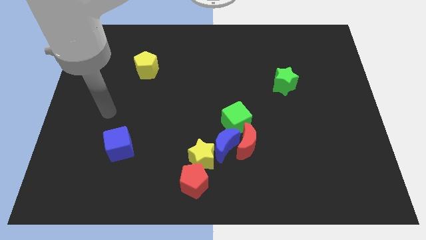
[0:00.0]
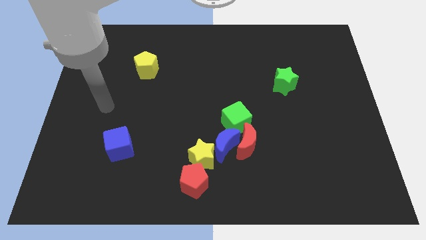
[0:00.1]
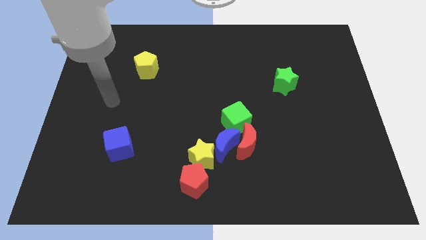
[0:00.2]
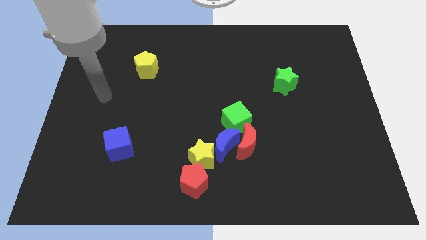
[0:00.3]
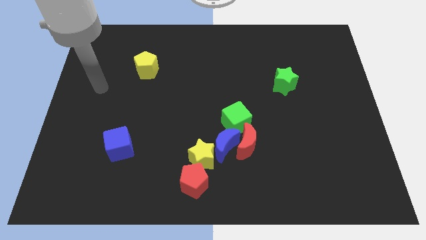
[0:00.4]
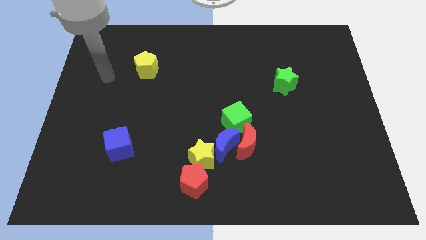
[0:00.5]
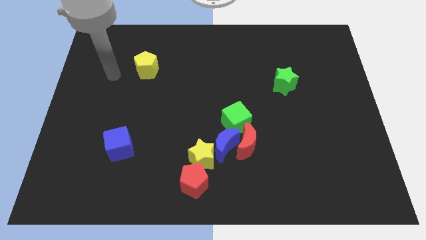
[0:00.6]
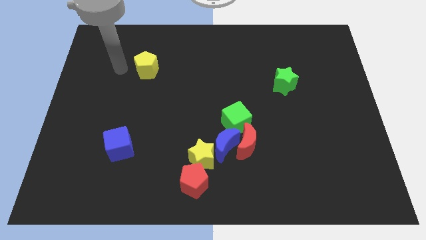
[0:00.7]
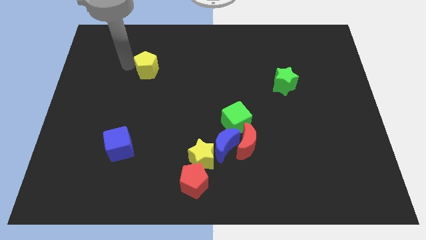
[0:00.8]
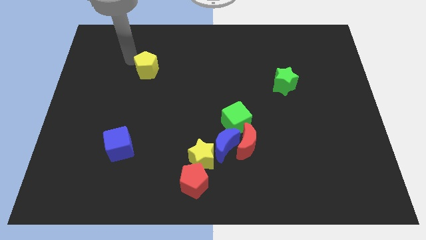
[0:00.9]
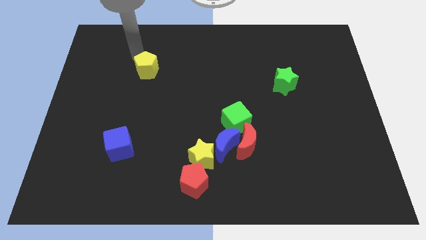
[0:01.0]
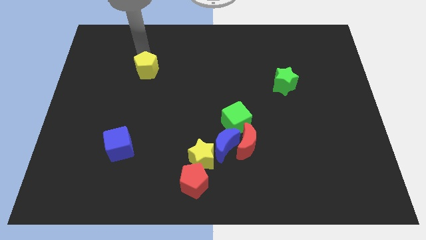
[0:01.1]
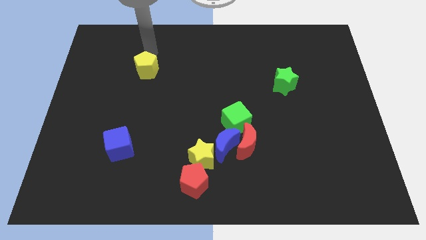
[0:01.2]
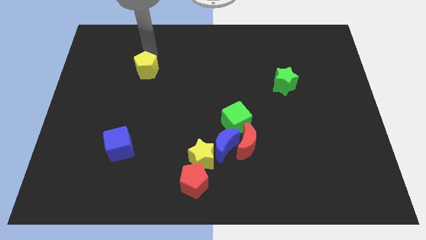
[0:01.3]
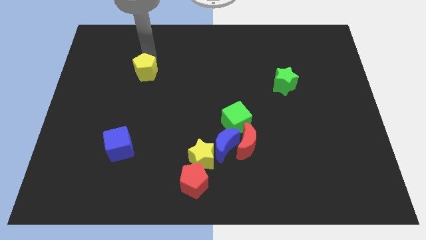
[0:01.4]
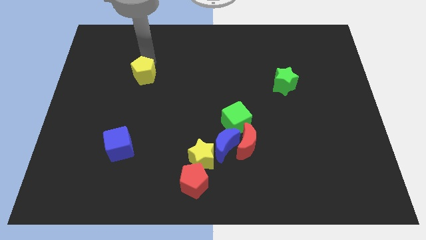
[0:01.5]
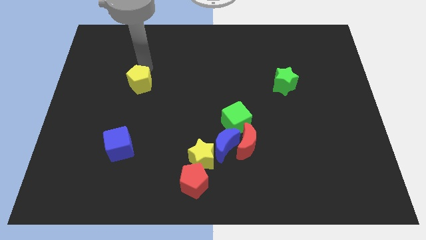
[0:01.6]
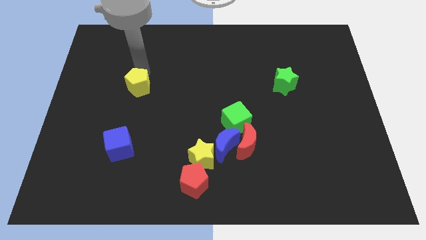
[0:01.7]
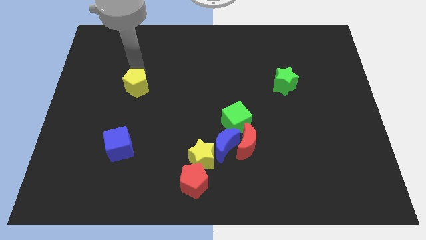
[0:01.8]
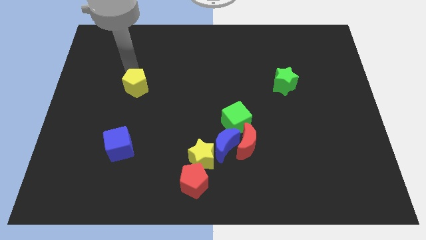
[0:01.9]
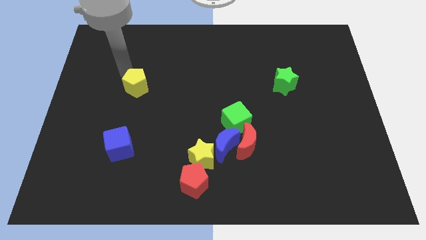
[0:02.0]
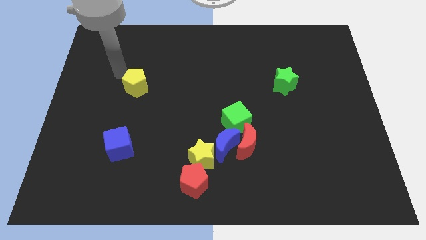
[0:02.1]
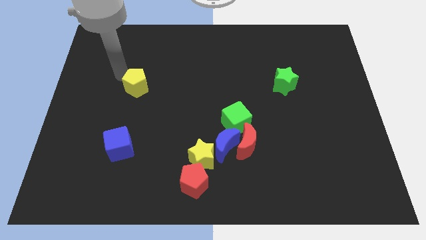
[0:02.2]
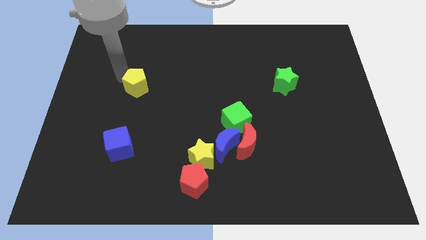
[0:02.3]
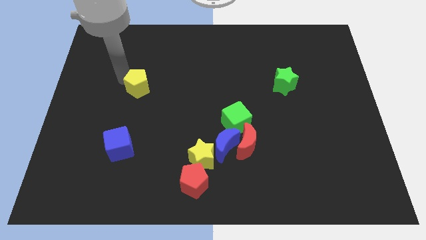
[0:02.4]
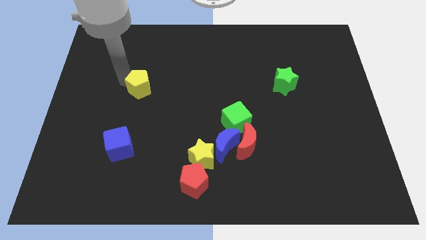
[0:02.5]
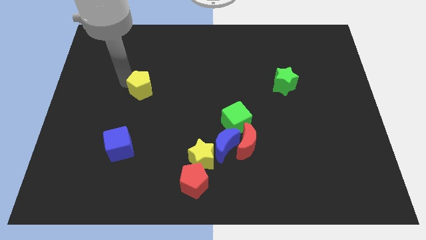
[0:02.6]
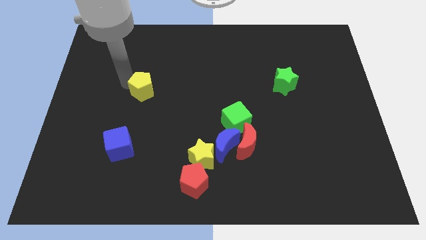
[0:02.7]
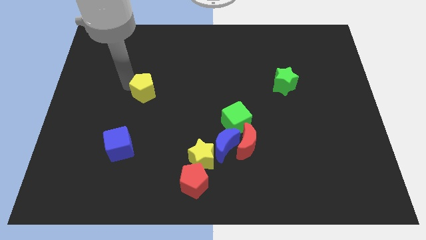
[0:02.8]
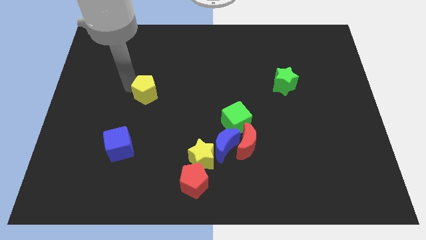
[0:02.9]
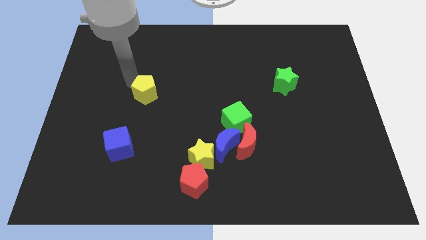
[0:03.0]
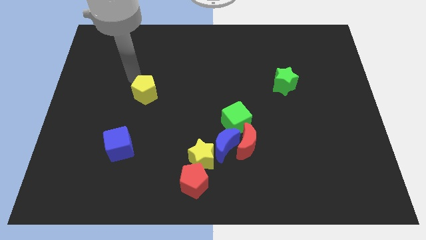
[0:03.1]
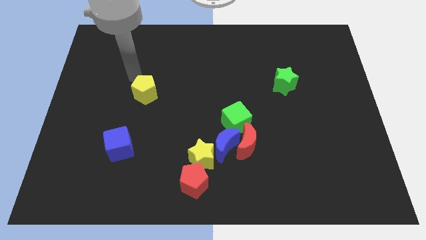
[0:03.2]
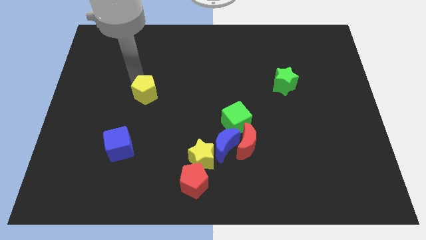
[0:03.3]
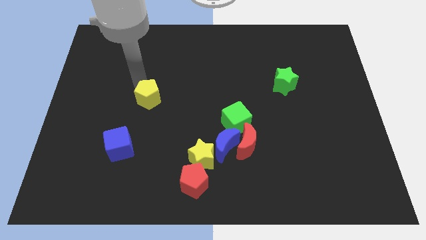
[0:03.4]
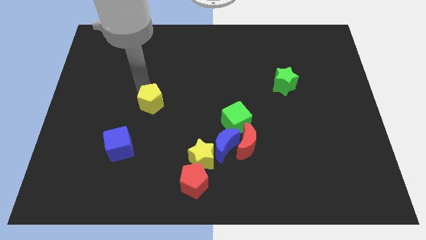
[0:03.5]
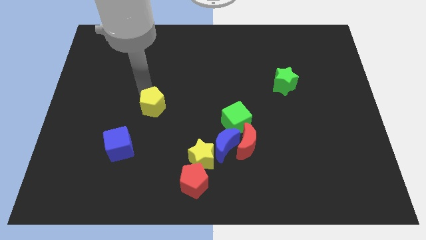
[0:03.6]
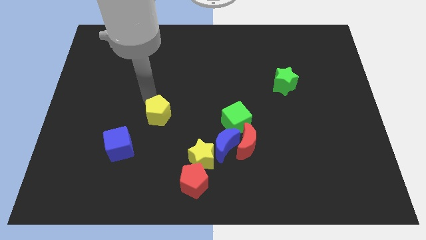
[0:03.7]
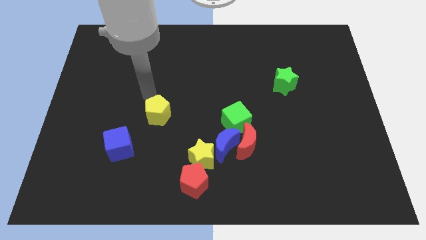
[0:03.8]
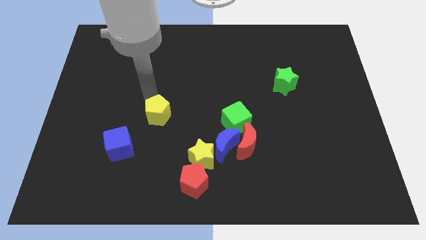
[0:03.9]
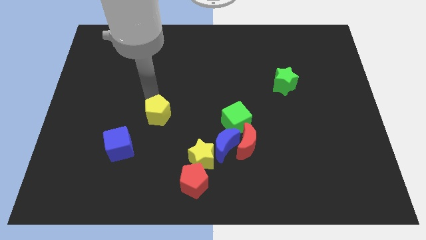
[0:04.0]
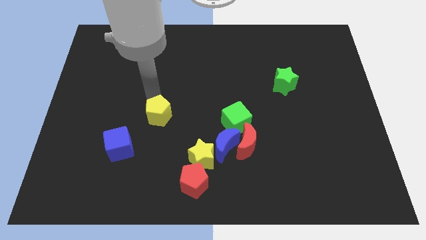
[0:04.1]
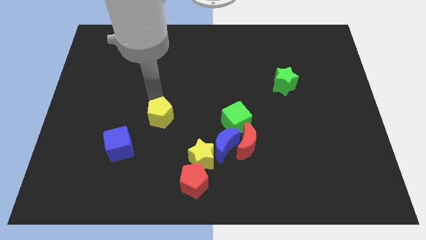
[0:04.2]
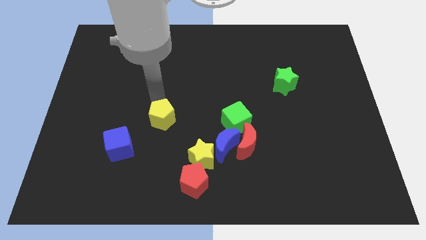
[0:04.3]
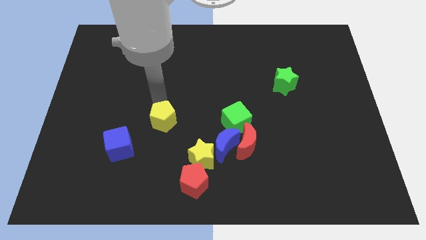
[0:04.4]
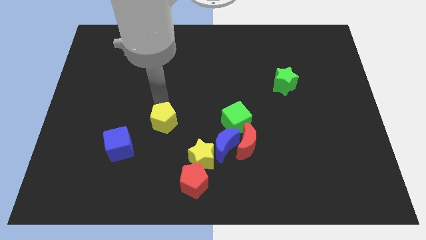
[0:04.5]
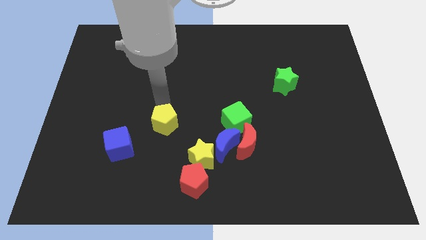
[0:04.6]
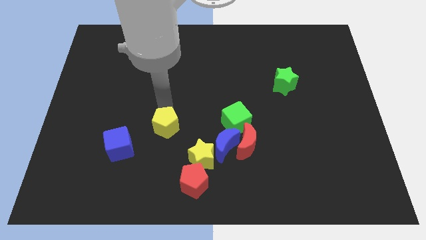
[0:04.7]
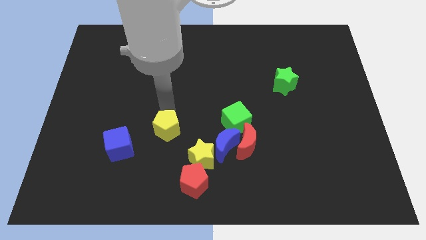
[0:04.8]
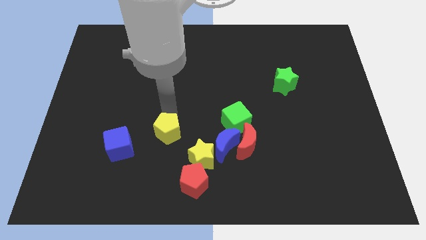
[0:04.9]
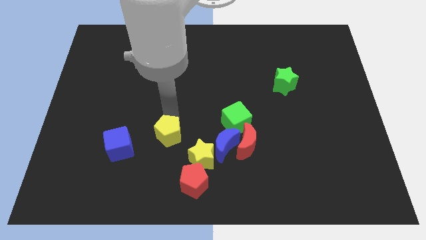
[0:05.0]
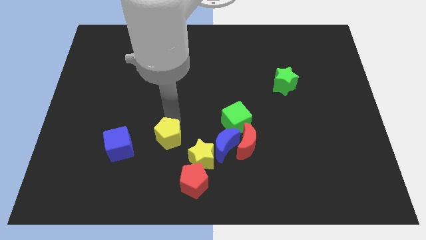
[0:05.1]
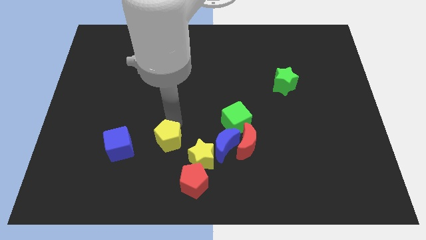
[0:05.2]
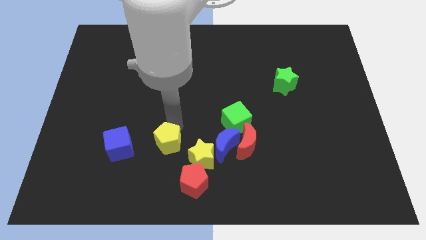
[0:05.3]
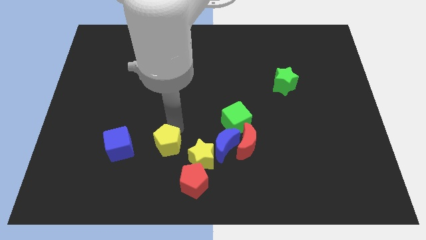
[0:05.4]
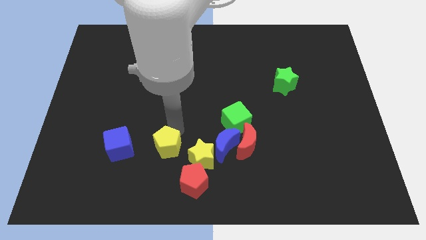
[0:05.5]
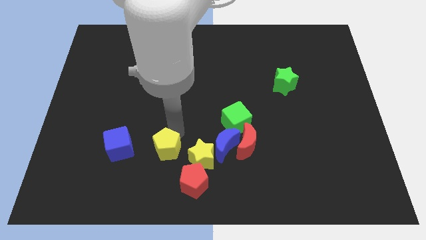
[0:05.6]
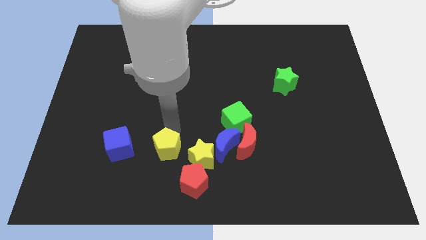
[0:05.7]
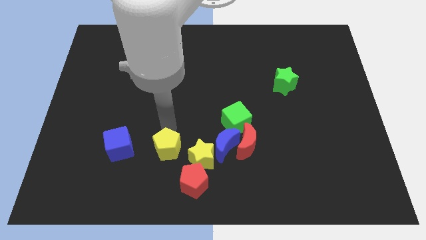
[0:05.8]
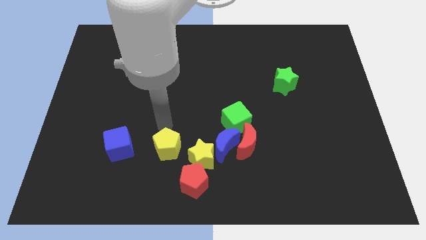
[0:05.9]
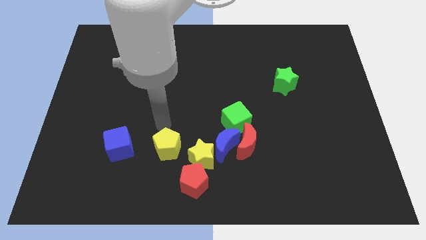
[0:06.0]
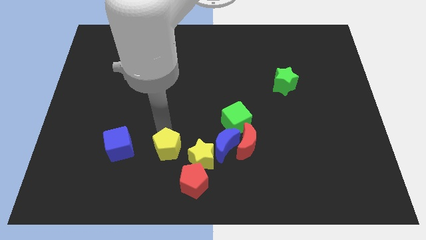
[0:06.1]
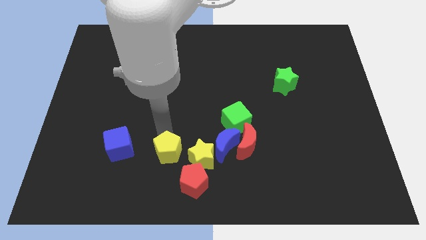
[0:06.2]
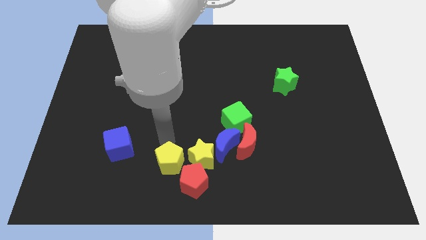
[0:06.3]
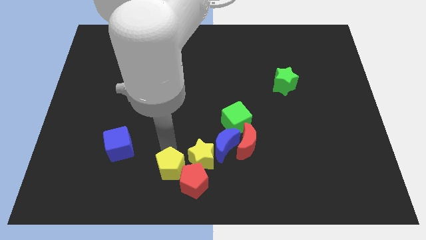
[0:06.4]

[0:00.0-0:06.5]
slide the yellow pentagon to the bottom
